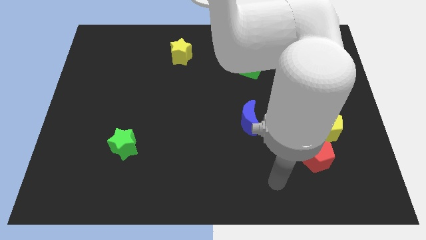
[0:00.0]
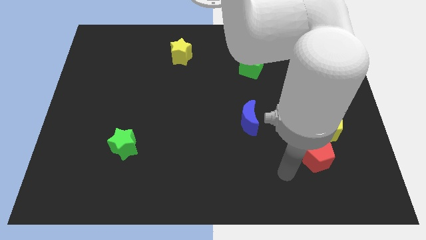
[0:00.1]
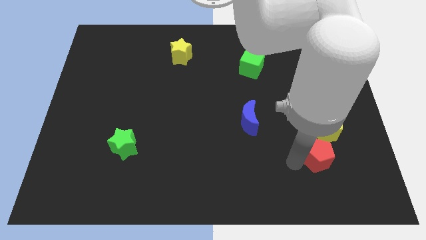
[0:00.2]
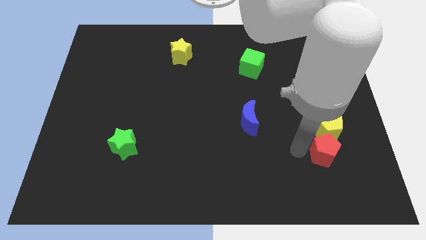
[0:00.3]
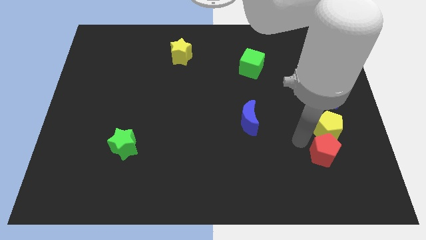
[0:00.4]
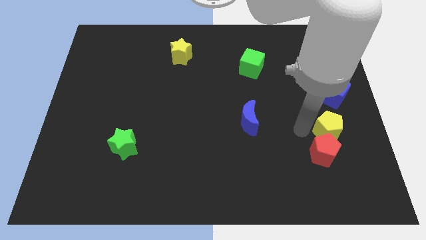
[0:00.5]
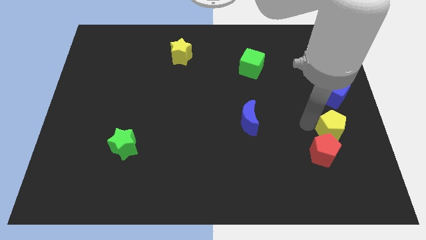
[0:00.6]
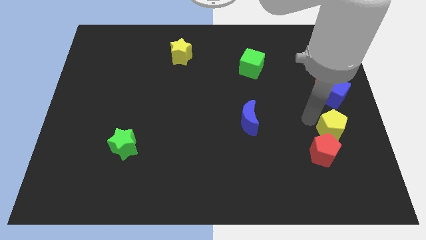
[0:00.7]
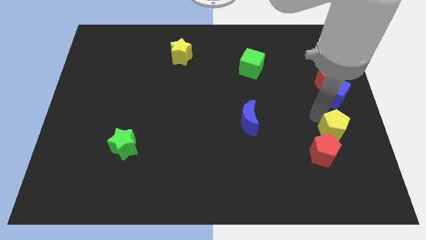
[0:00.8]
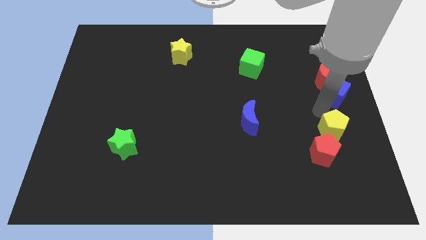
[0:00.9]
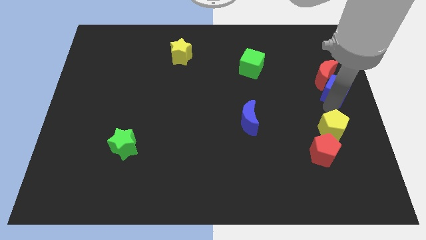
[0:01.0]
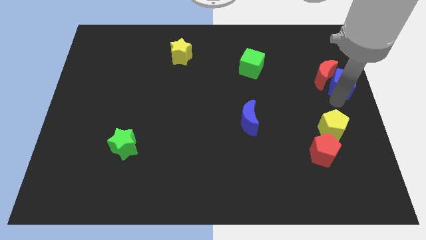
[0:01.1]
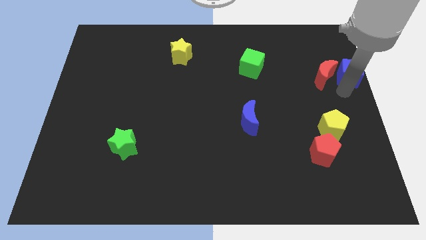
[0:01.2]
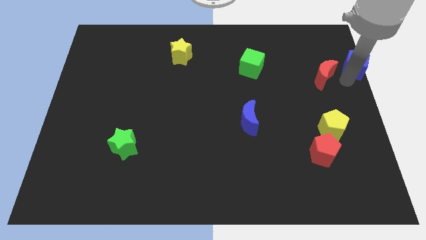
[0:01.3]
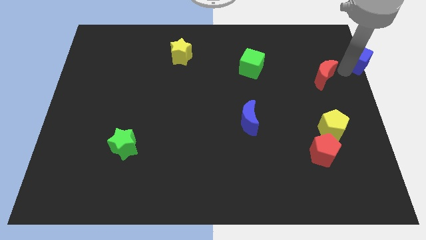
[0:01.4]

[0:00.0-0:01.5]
pull the red moon apart from the blue cube

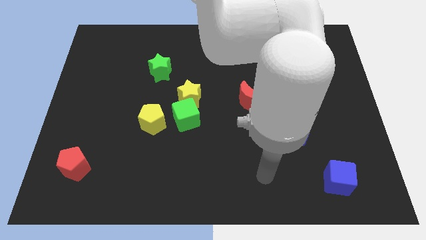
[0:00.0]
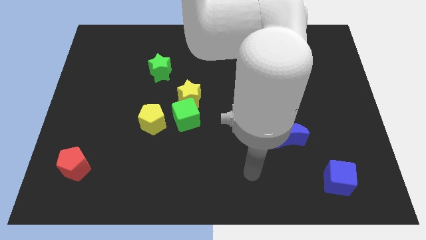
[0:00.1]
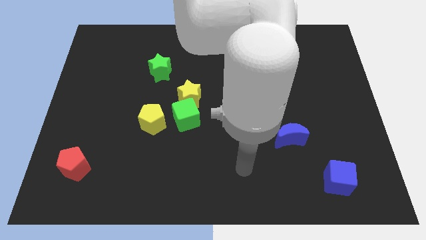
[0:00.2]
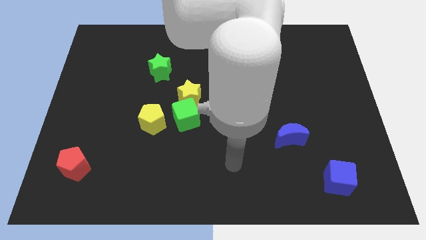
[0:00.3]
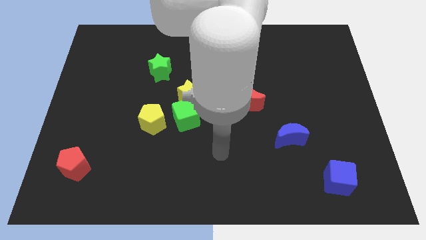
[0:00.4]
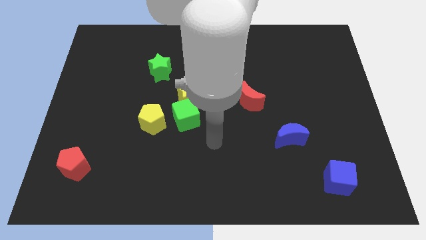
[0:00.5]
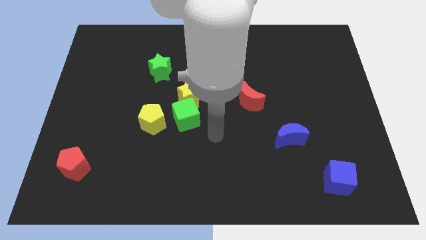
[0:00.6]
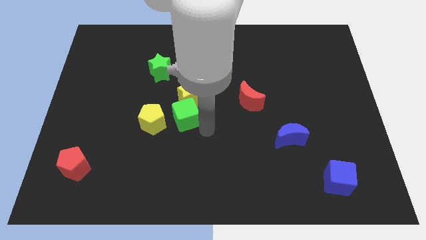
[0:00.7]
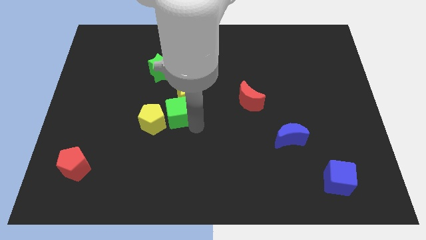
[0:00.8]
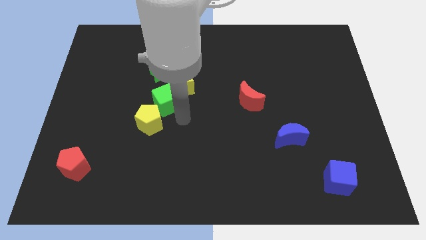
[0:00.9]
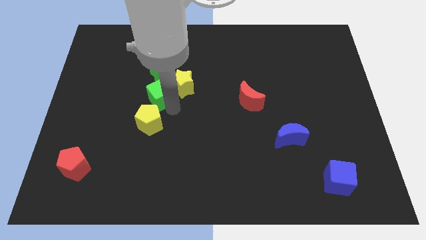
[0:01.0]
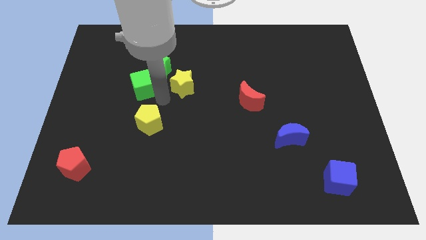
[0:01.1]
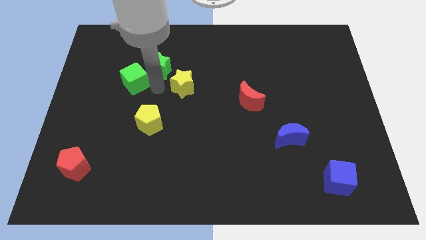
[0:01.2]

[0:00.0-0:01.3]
move the yellow star away from the green cube

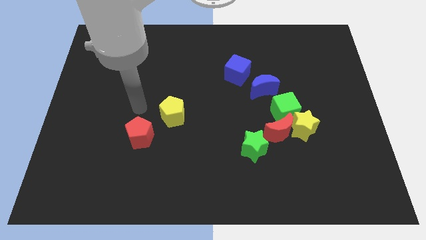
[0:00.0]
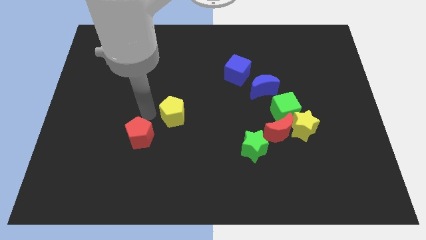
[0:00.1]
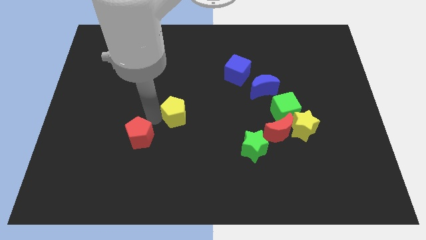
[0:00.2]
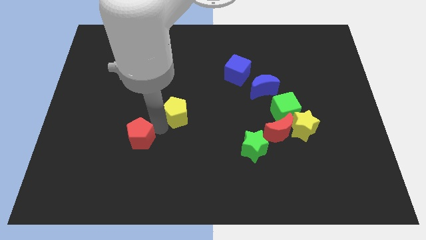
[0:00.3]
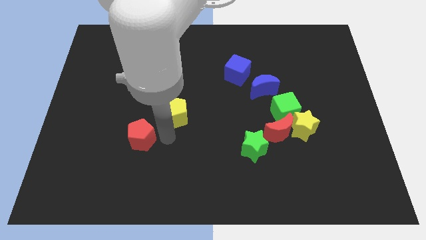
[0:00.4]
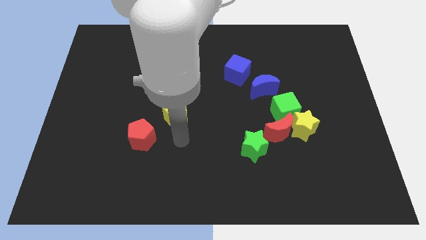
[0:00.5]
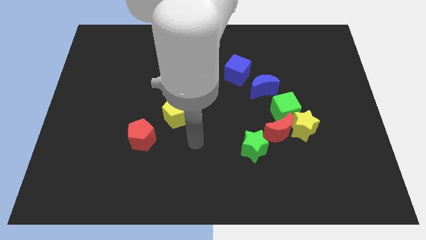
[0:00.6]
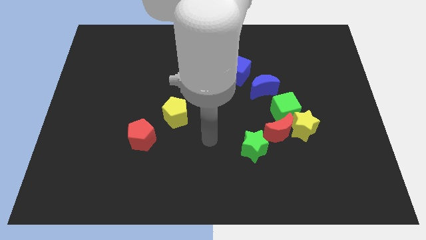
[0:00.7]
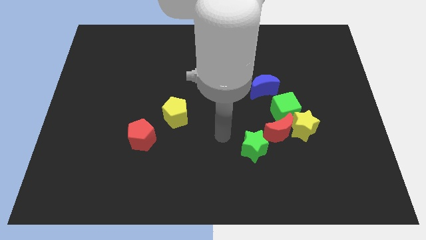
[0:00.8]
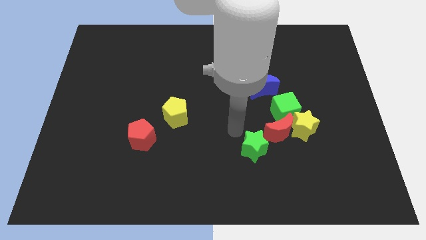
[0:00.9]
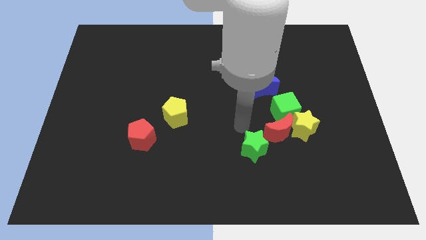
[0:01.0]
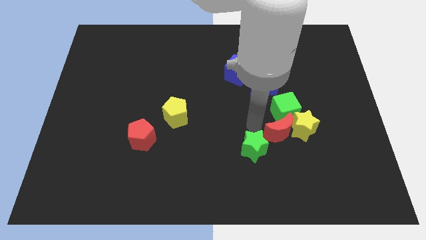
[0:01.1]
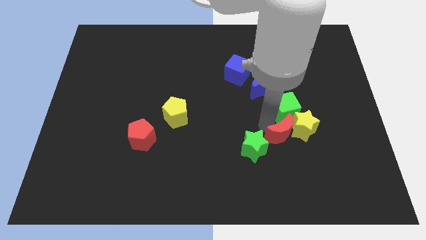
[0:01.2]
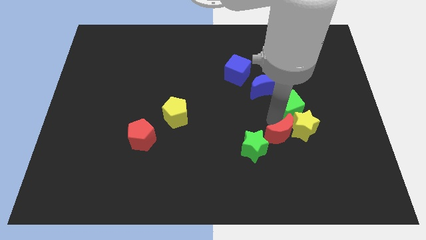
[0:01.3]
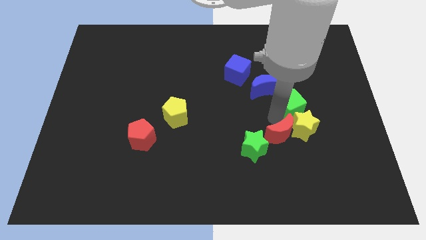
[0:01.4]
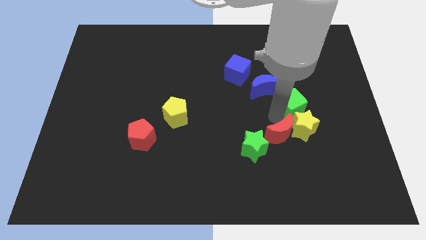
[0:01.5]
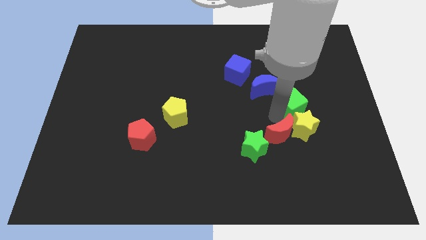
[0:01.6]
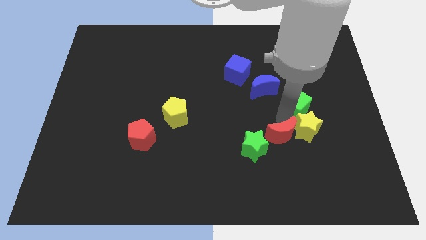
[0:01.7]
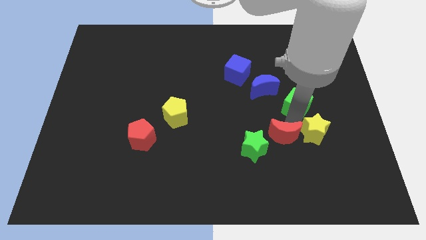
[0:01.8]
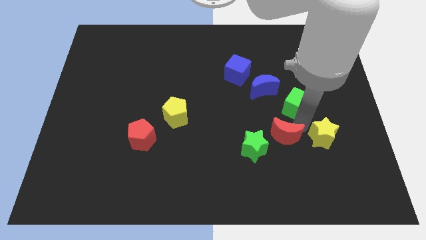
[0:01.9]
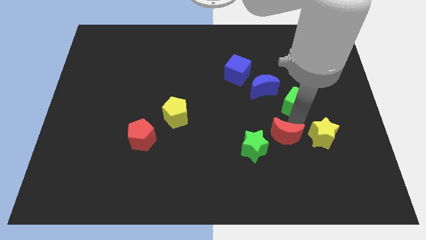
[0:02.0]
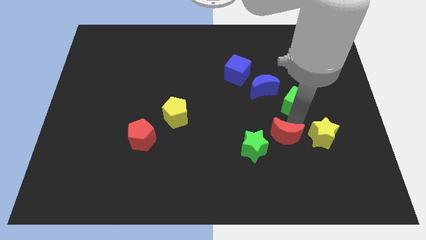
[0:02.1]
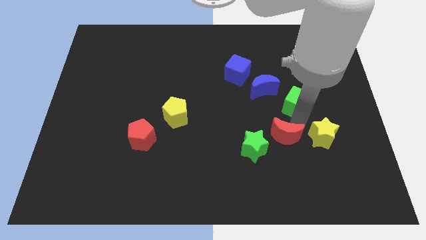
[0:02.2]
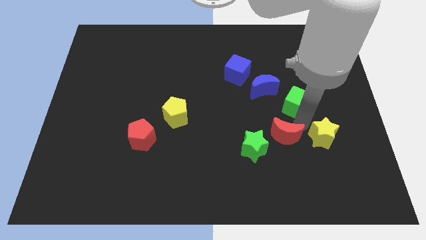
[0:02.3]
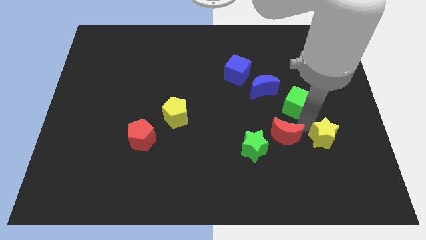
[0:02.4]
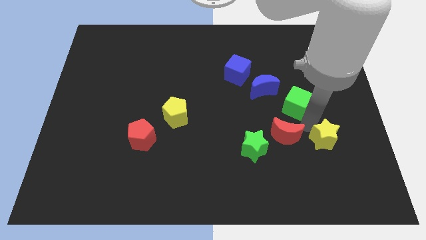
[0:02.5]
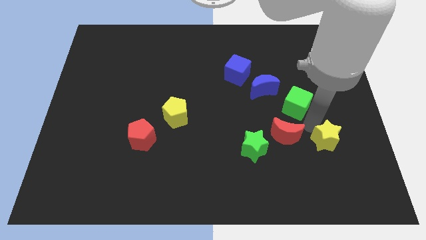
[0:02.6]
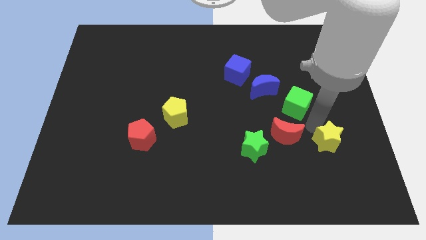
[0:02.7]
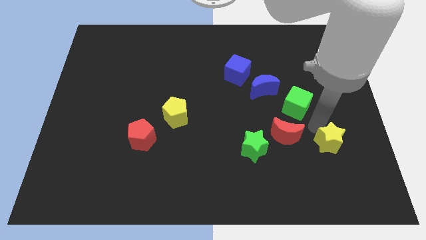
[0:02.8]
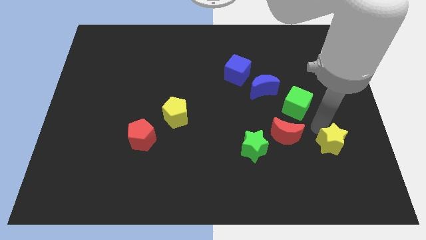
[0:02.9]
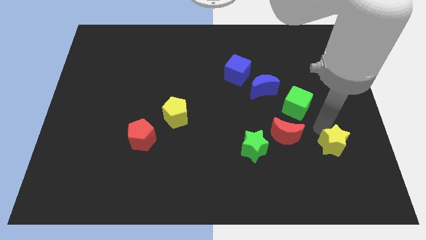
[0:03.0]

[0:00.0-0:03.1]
pull the yellow star apart from the red moon and green cube

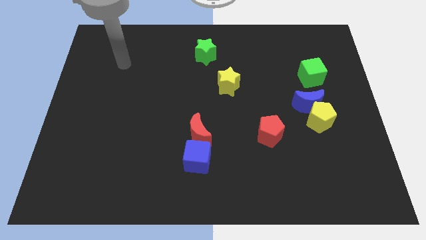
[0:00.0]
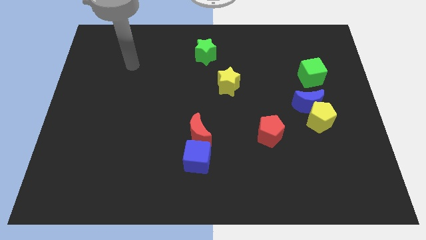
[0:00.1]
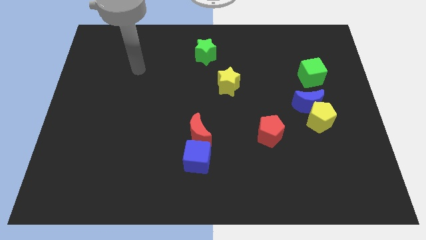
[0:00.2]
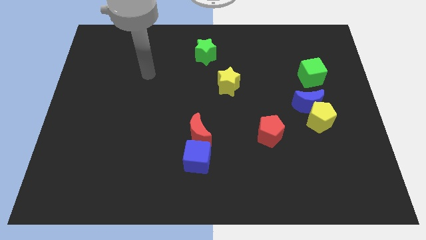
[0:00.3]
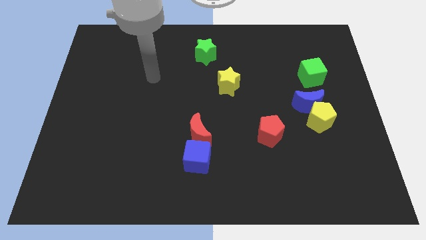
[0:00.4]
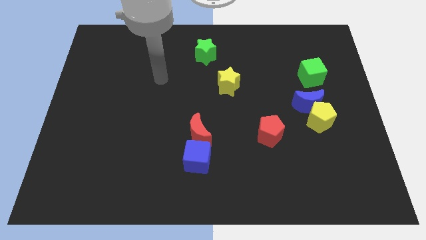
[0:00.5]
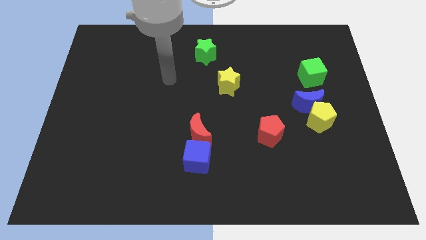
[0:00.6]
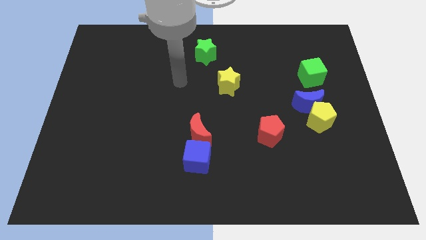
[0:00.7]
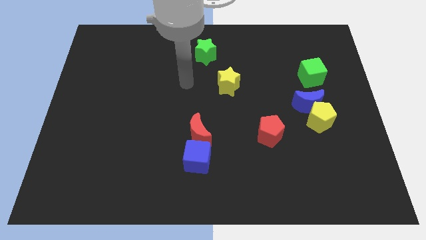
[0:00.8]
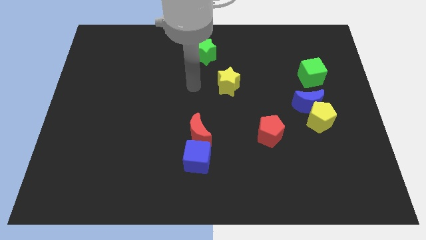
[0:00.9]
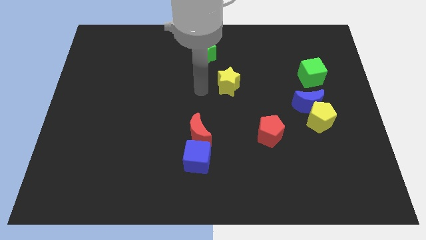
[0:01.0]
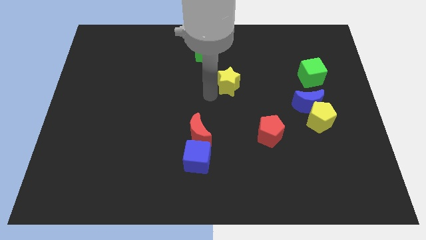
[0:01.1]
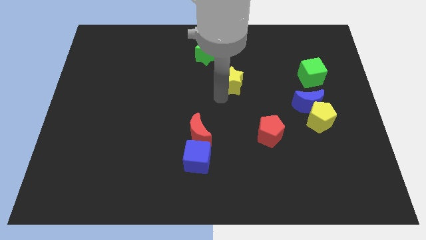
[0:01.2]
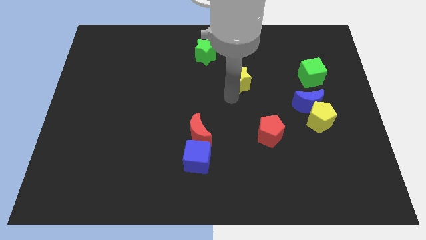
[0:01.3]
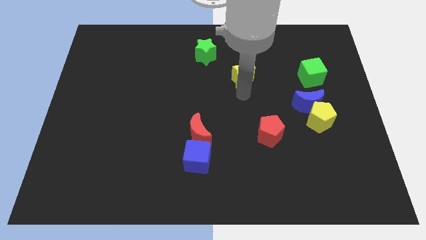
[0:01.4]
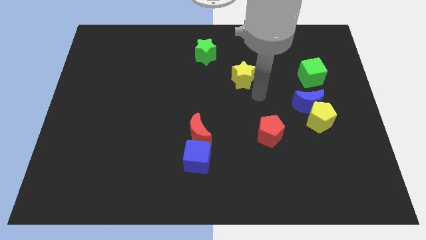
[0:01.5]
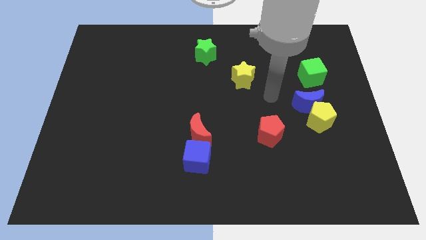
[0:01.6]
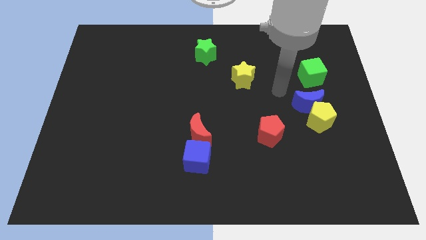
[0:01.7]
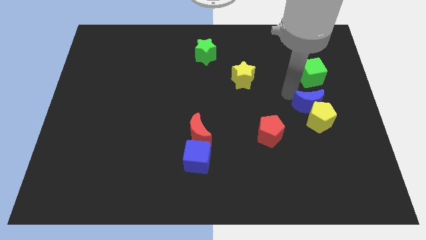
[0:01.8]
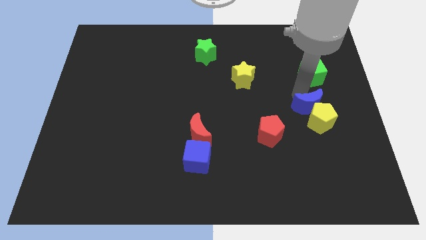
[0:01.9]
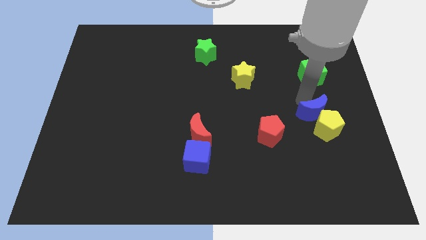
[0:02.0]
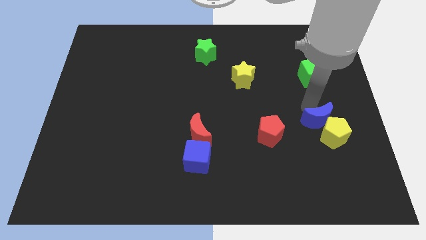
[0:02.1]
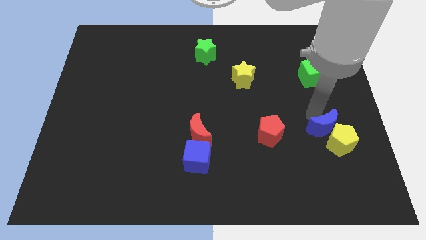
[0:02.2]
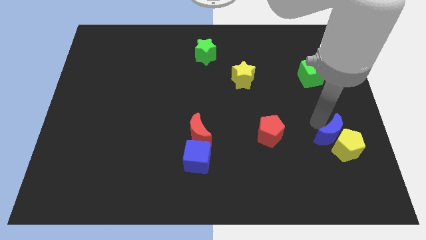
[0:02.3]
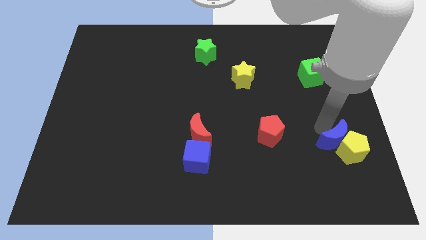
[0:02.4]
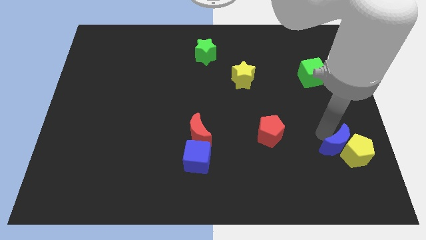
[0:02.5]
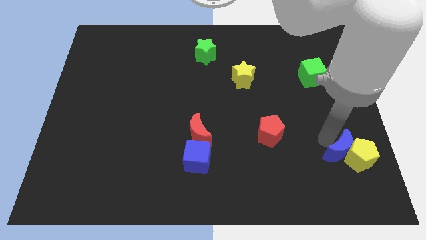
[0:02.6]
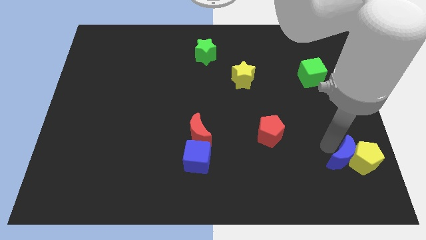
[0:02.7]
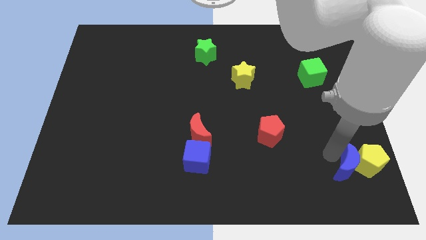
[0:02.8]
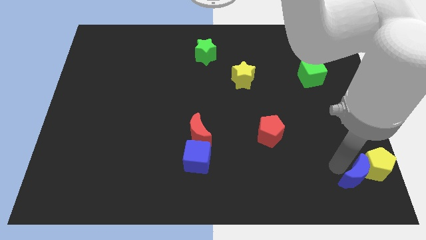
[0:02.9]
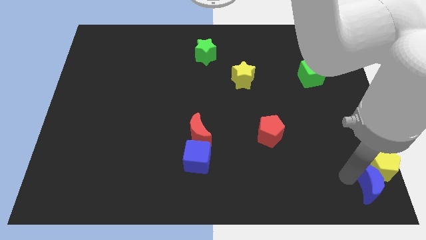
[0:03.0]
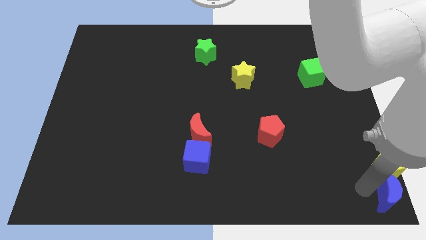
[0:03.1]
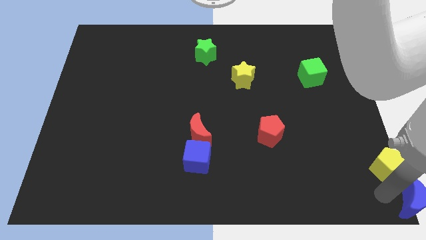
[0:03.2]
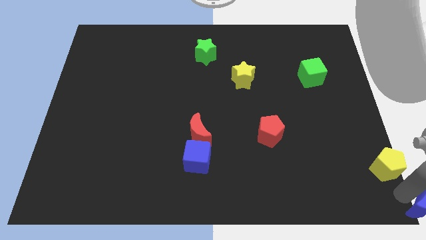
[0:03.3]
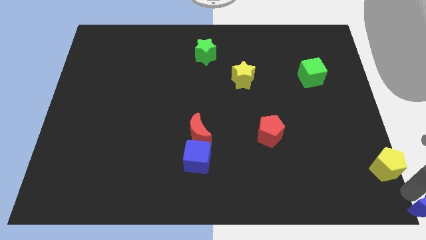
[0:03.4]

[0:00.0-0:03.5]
move the yellow pentagon away from the blue moon
